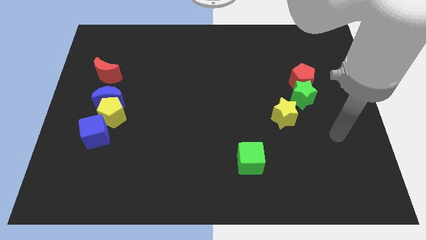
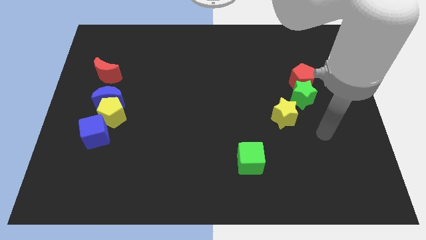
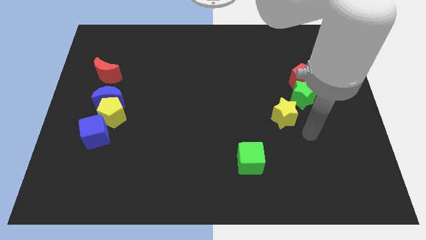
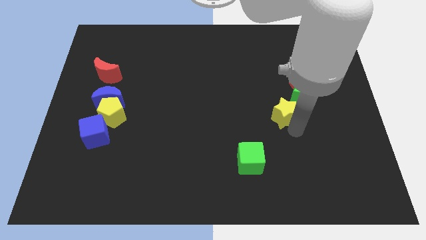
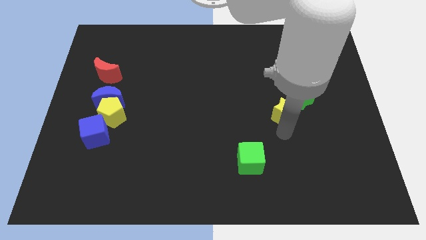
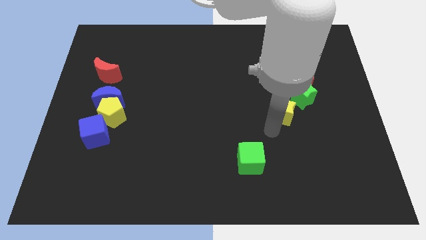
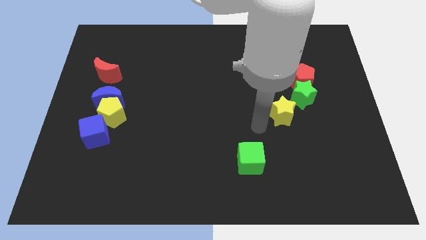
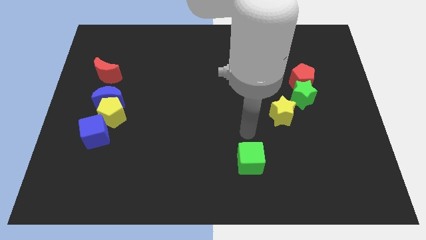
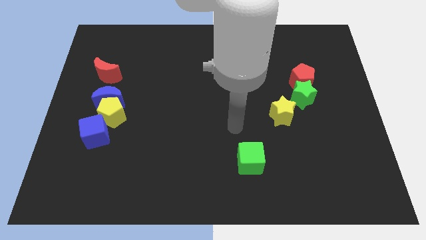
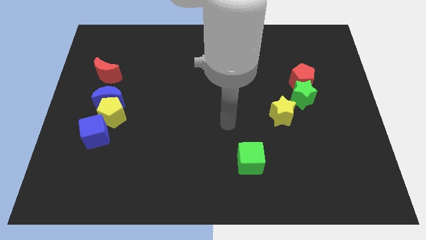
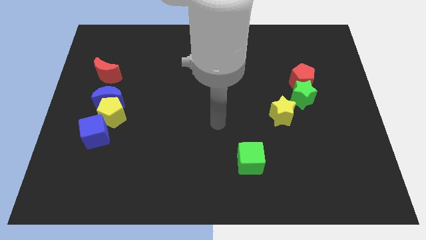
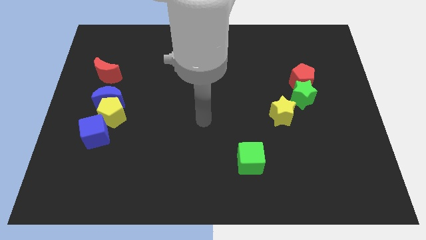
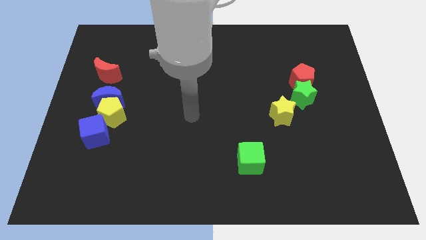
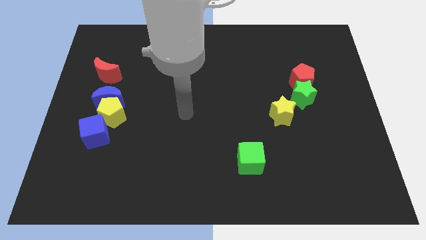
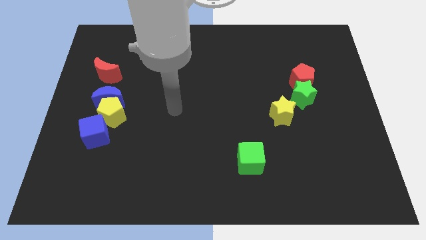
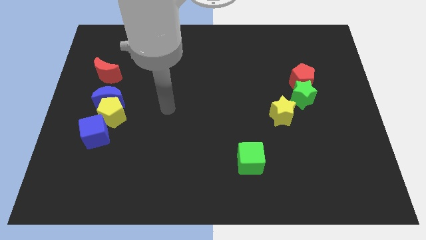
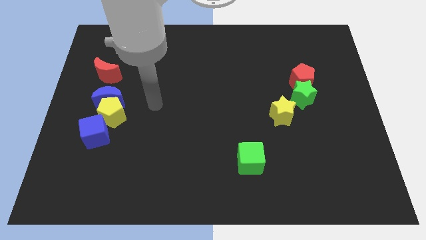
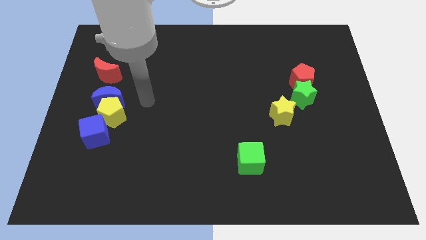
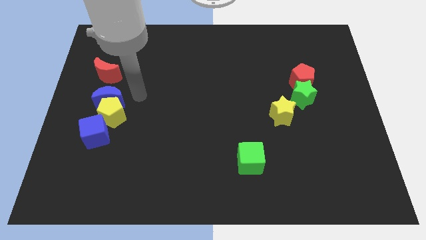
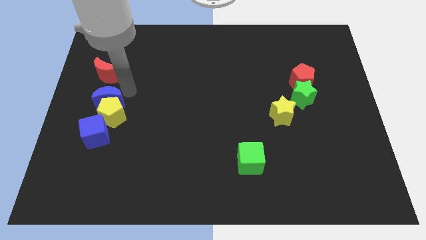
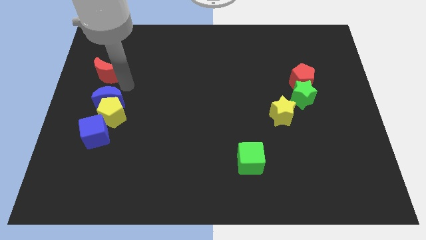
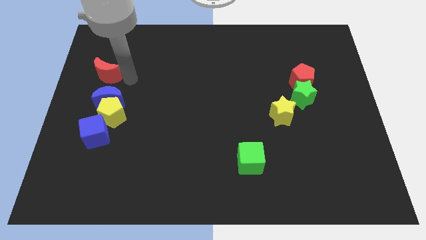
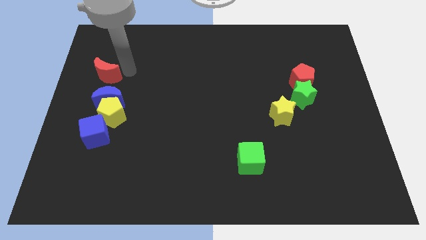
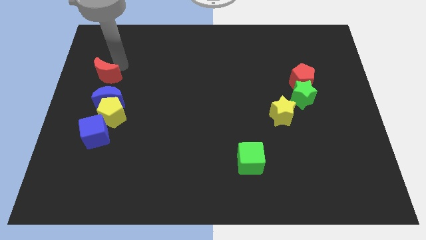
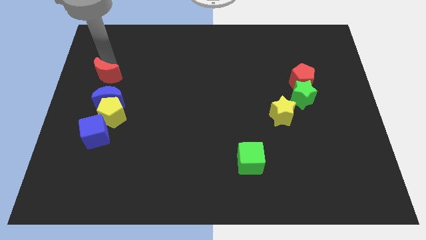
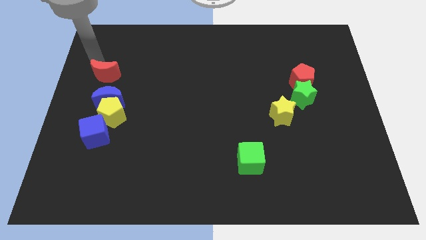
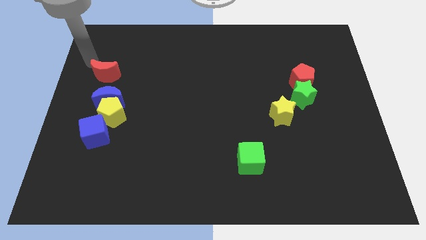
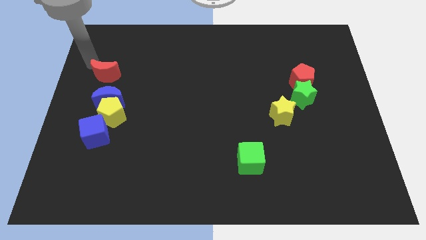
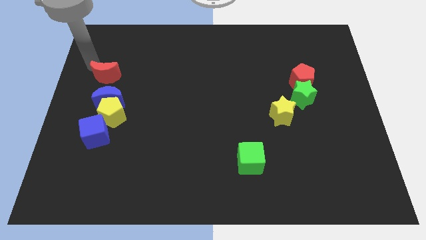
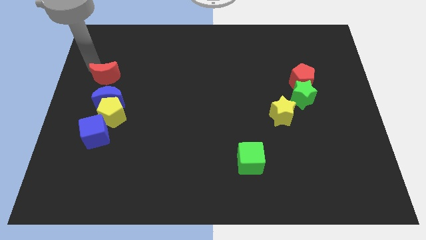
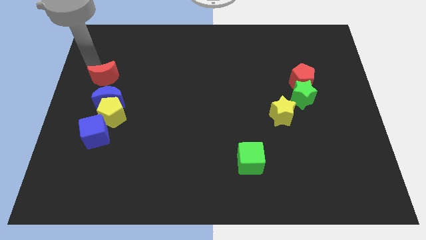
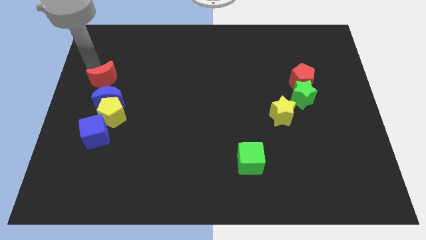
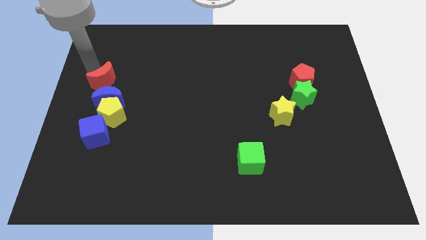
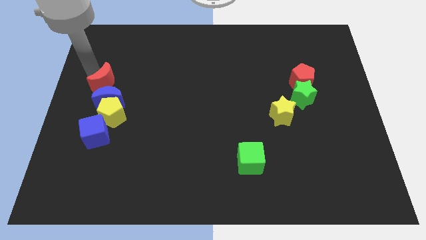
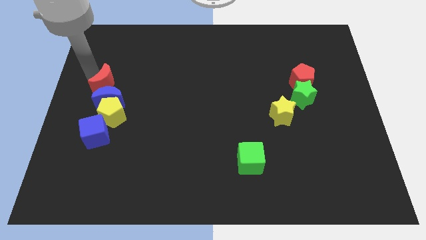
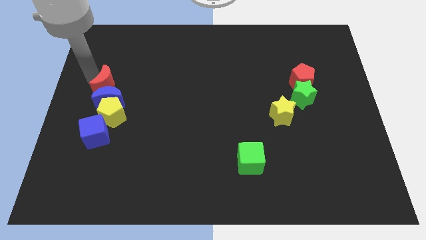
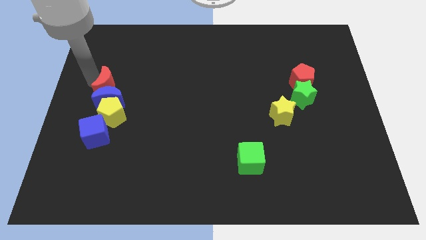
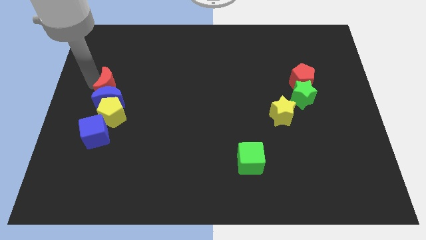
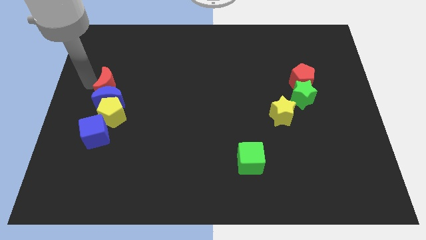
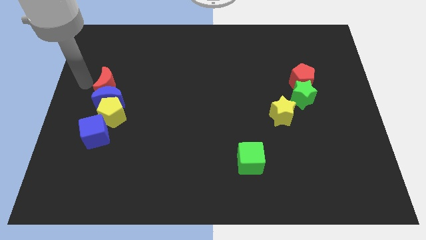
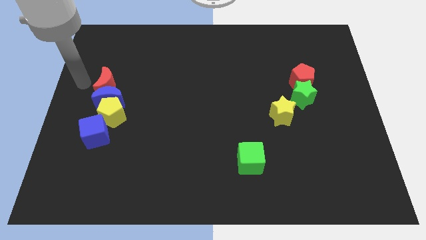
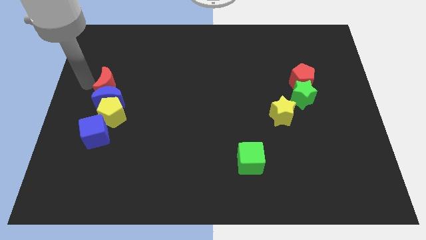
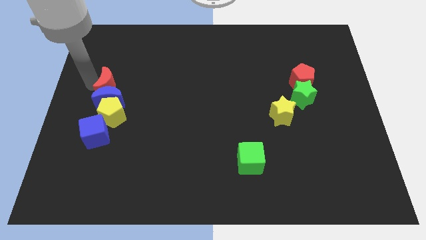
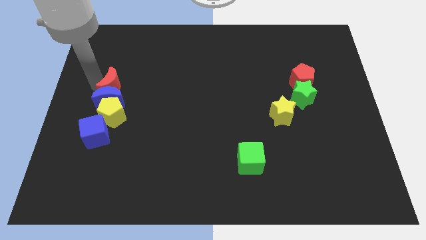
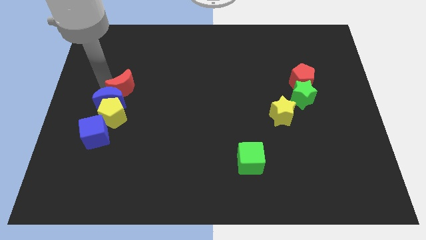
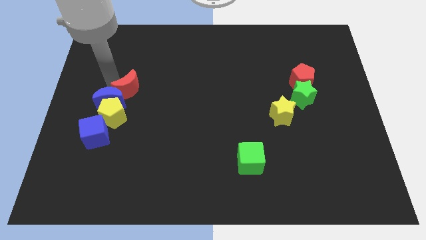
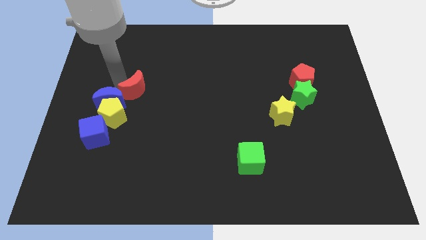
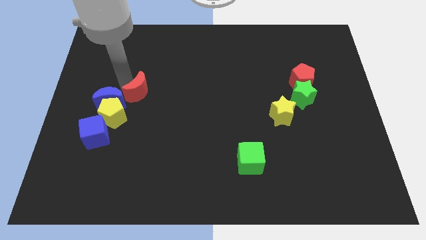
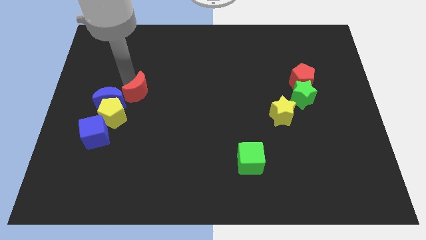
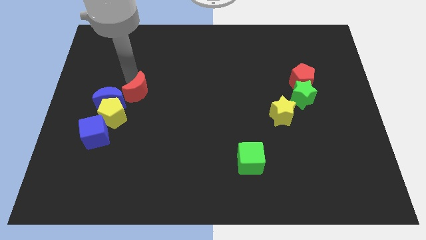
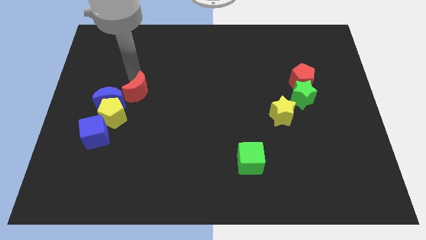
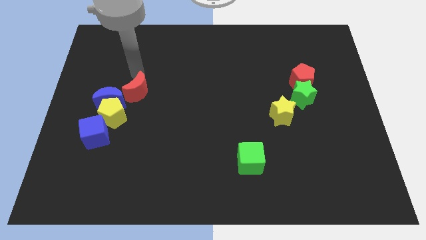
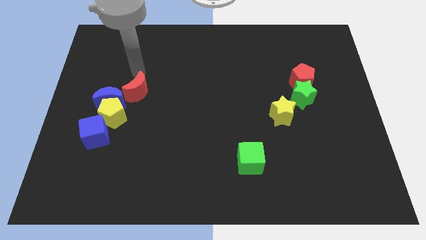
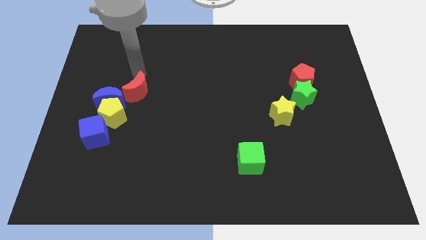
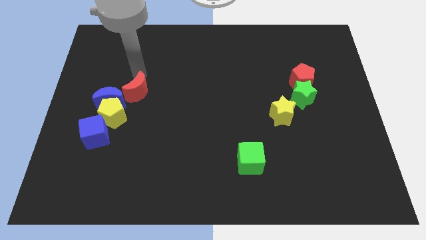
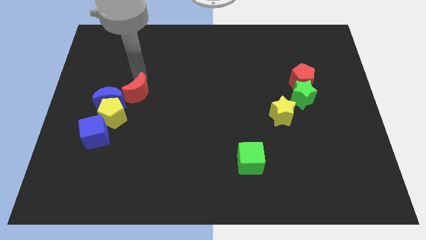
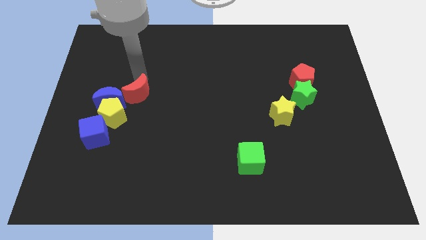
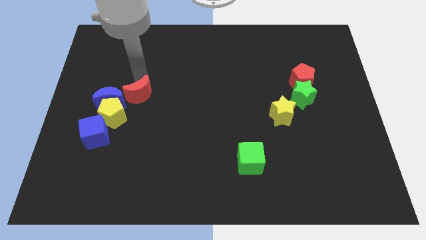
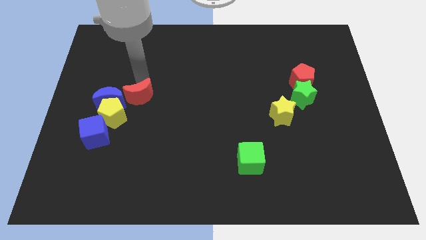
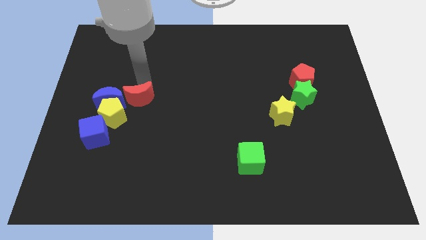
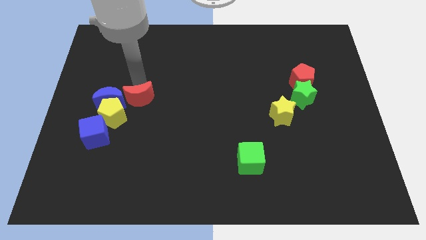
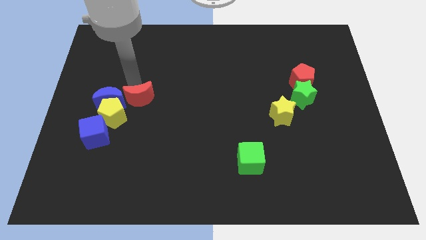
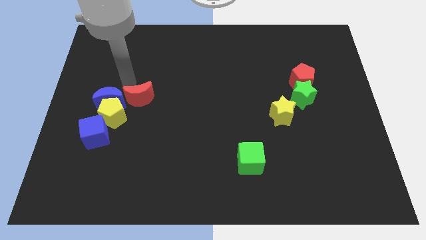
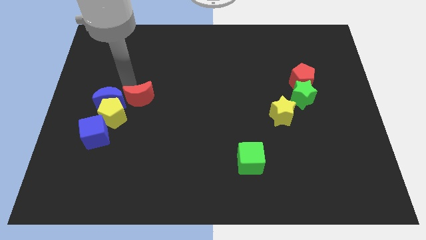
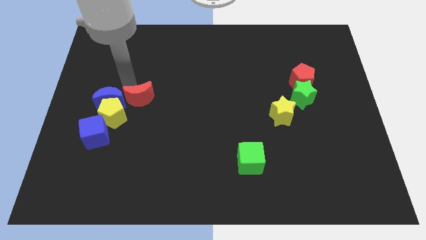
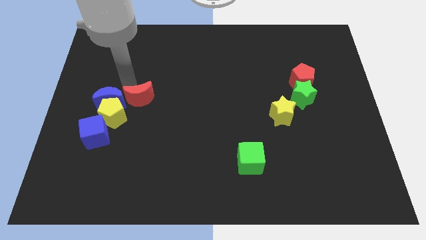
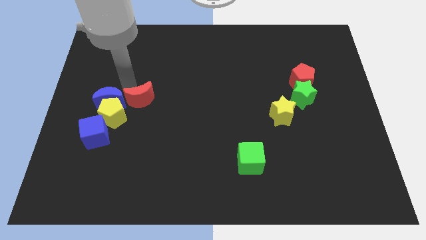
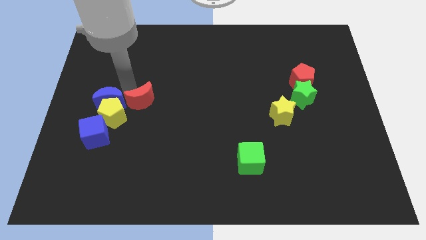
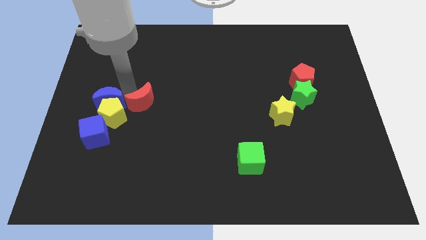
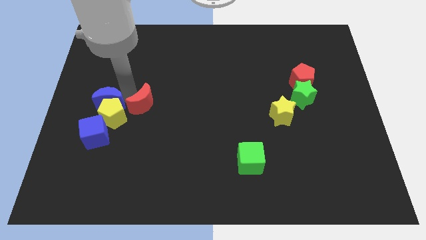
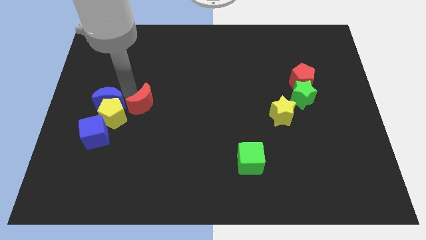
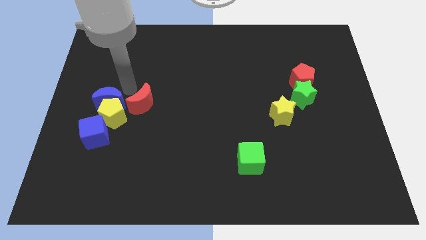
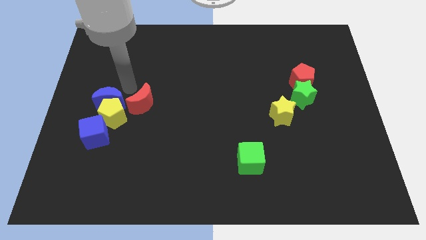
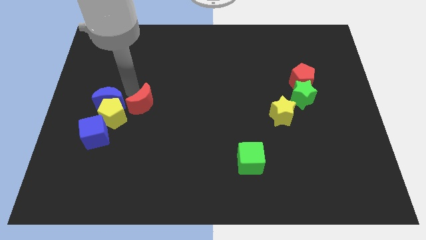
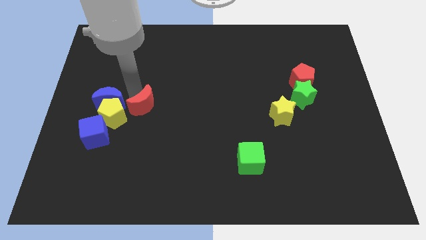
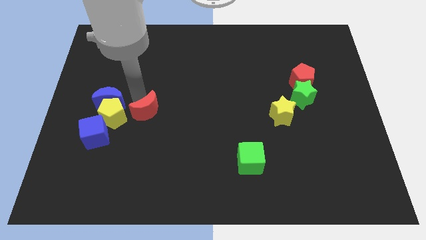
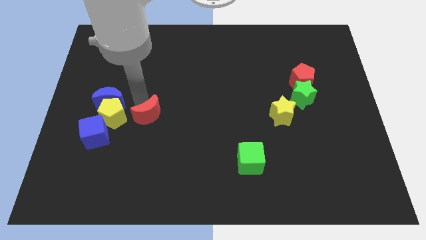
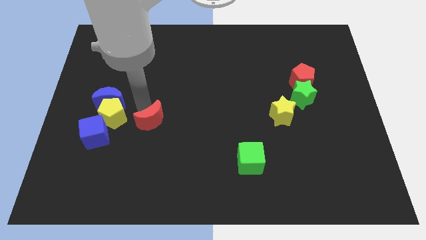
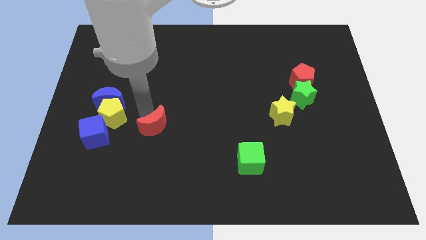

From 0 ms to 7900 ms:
push the red moon downwards and then to the right
